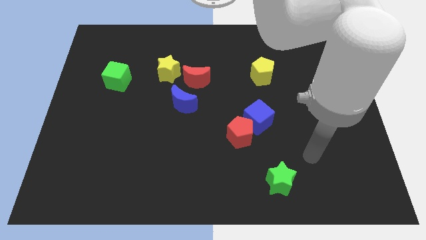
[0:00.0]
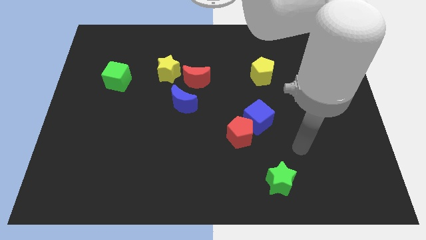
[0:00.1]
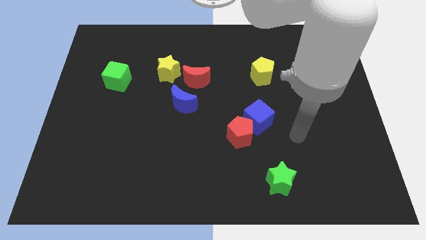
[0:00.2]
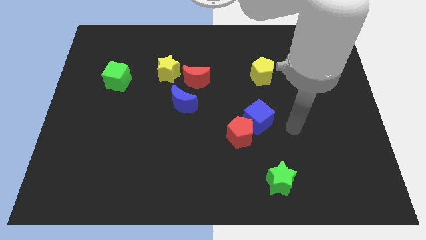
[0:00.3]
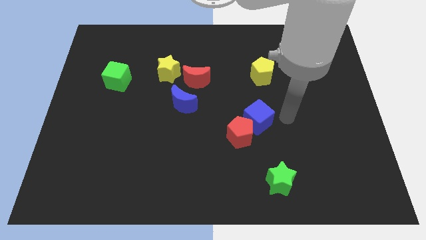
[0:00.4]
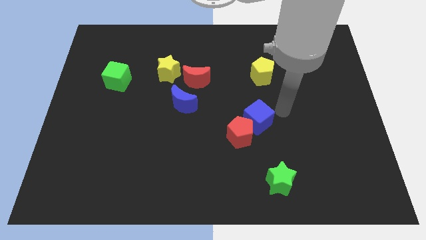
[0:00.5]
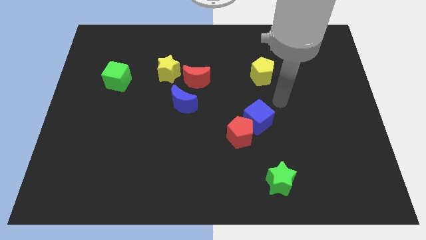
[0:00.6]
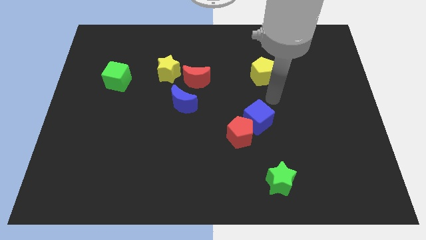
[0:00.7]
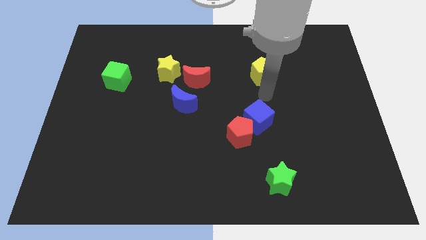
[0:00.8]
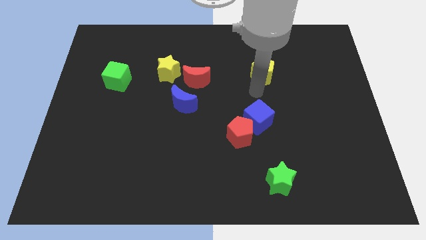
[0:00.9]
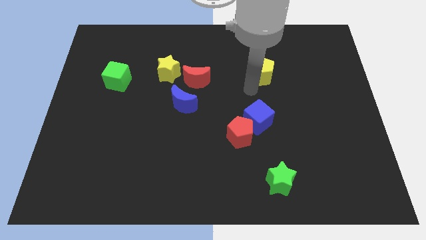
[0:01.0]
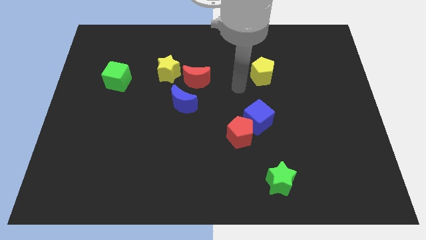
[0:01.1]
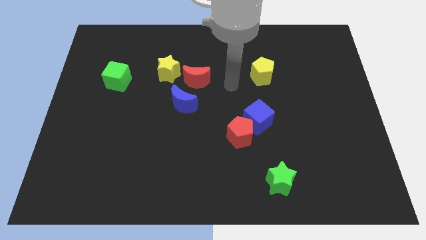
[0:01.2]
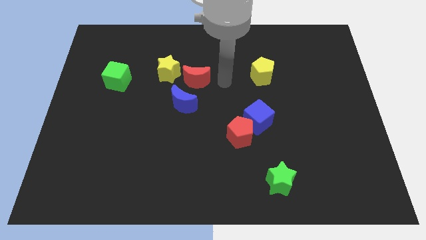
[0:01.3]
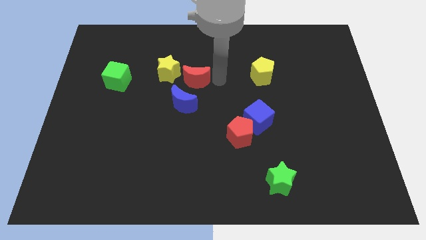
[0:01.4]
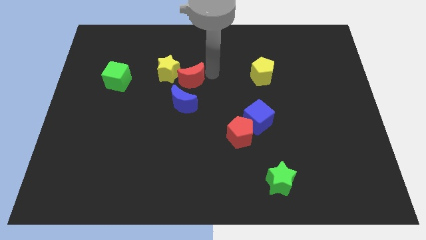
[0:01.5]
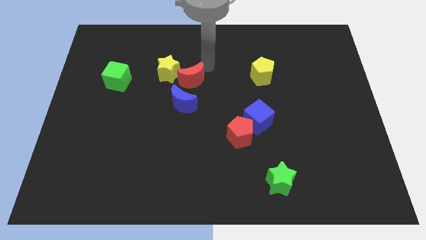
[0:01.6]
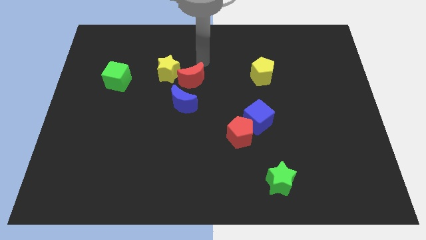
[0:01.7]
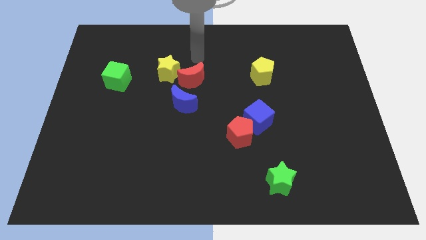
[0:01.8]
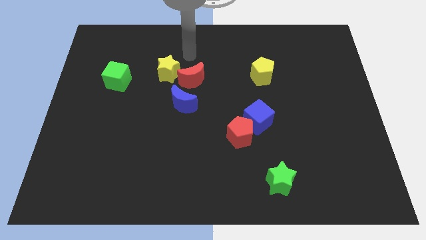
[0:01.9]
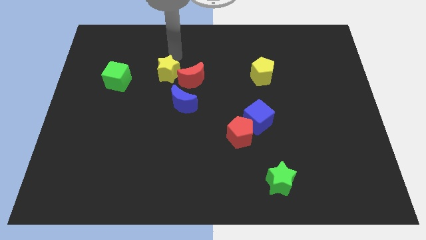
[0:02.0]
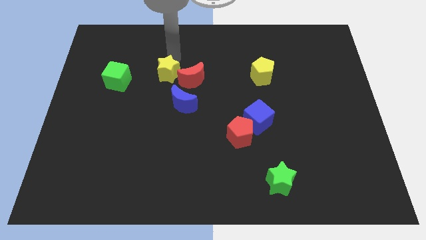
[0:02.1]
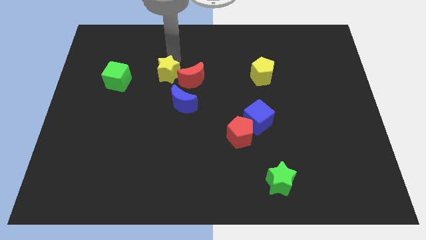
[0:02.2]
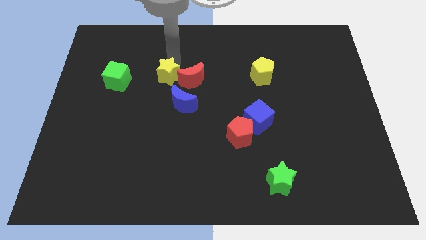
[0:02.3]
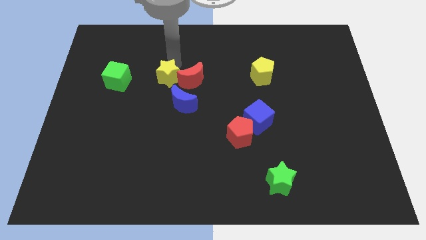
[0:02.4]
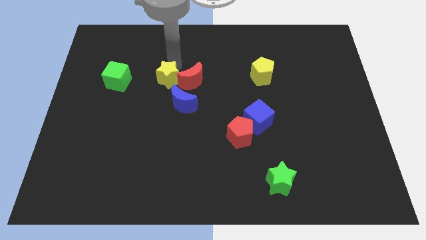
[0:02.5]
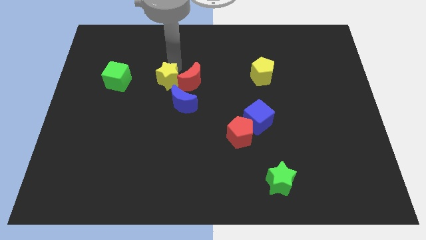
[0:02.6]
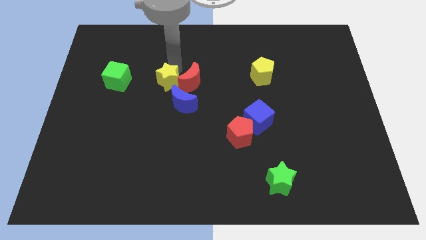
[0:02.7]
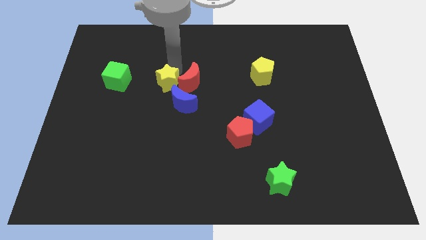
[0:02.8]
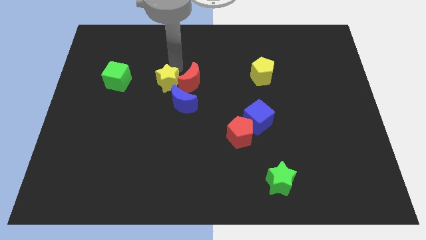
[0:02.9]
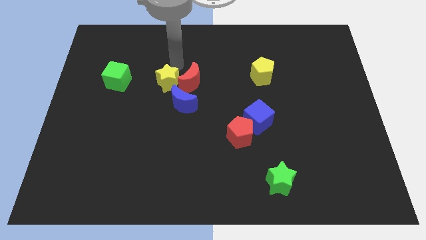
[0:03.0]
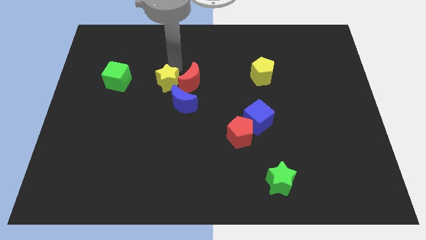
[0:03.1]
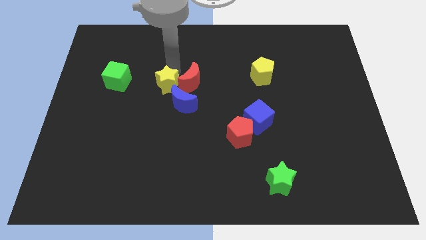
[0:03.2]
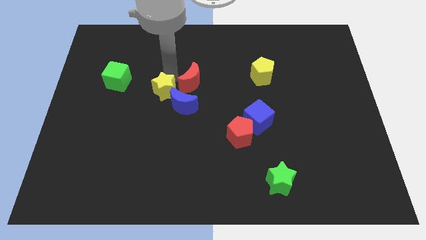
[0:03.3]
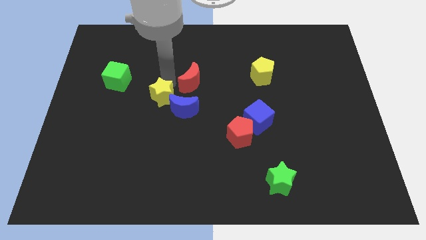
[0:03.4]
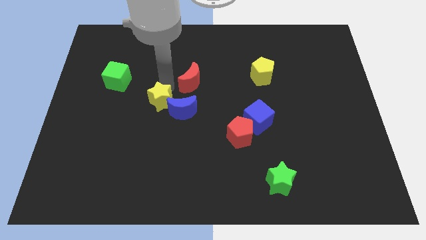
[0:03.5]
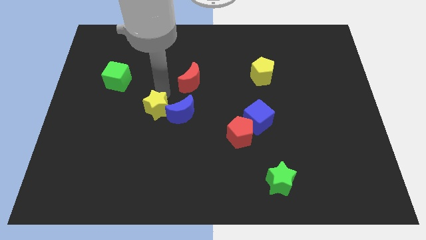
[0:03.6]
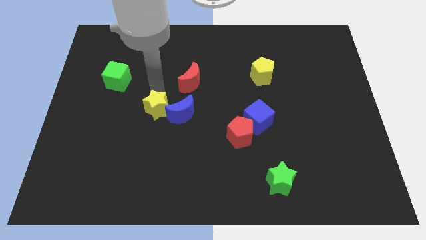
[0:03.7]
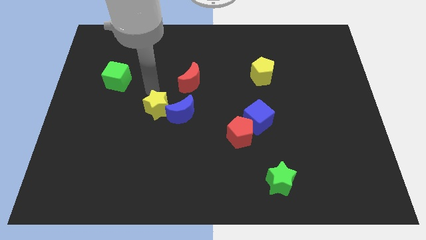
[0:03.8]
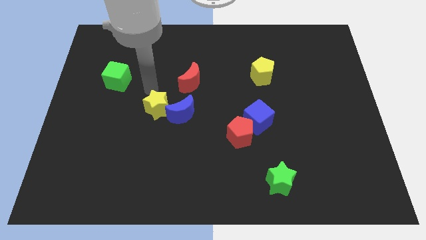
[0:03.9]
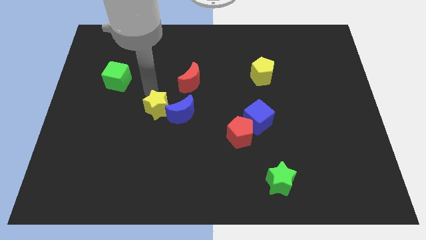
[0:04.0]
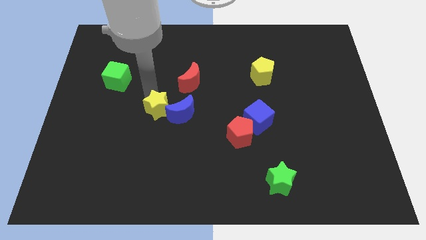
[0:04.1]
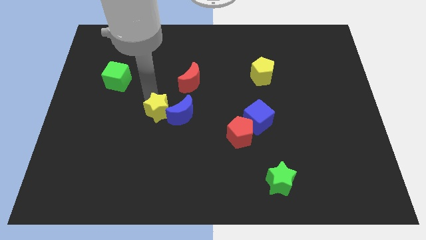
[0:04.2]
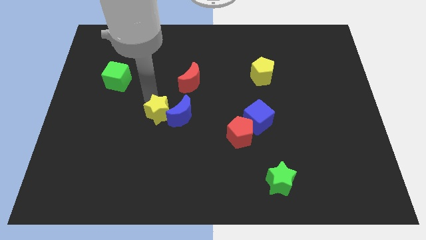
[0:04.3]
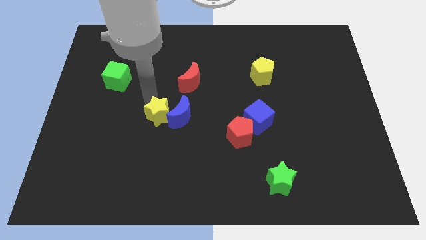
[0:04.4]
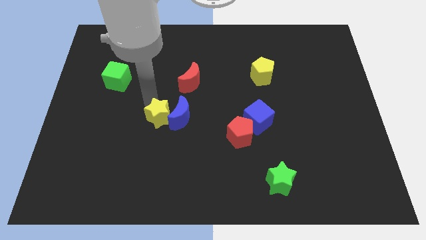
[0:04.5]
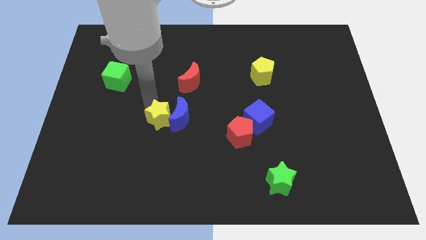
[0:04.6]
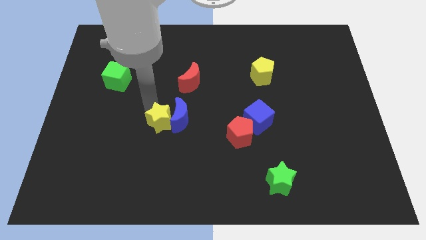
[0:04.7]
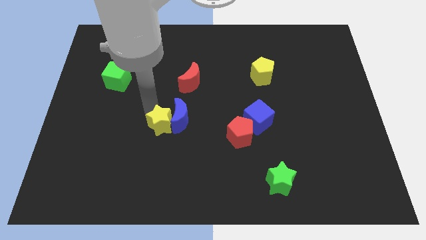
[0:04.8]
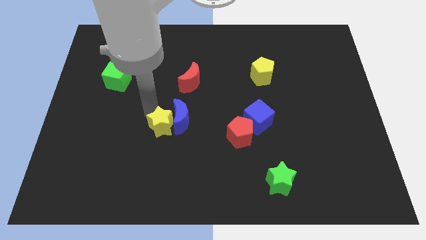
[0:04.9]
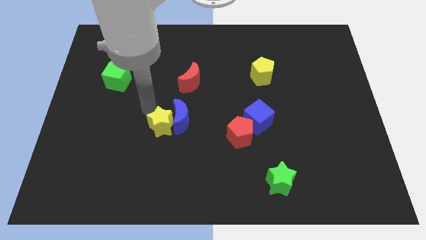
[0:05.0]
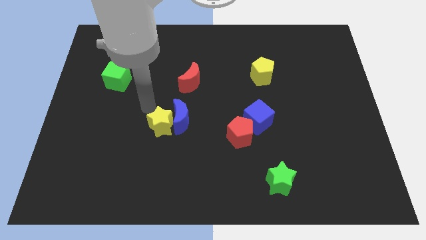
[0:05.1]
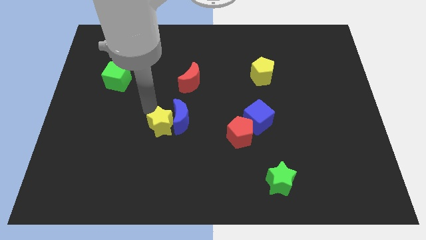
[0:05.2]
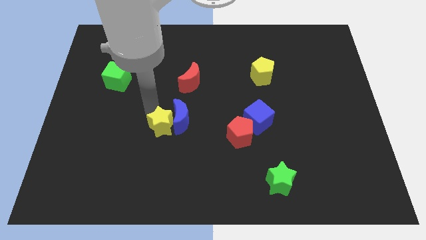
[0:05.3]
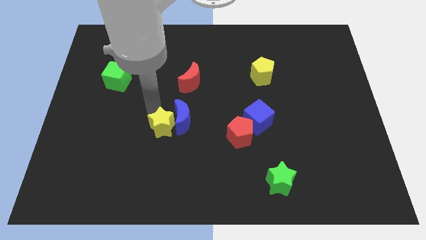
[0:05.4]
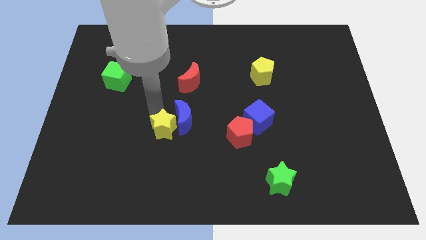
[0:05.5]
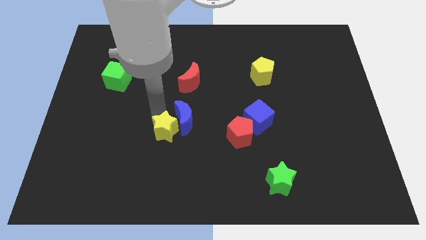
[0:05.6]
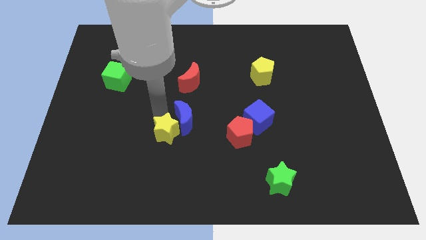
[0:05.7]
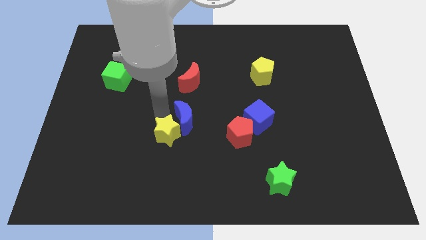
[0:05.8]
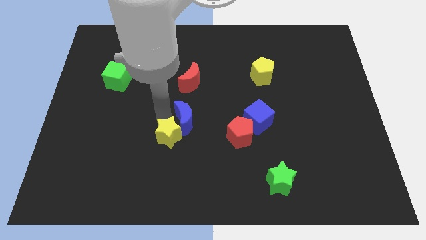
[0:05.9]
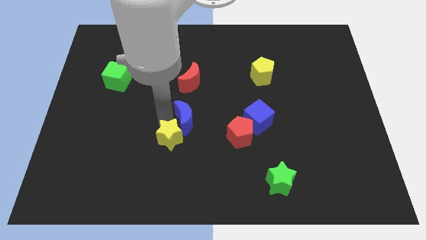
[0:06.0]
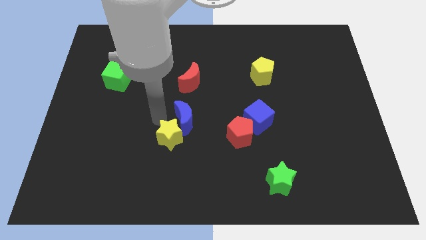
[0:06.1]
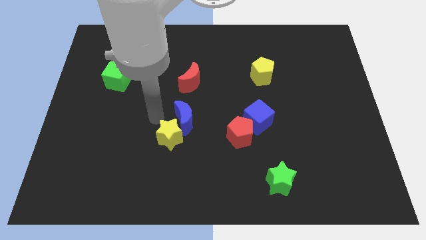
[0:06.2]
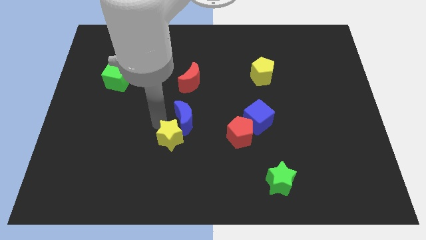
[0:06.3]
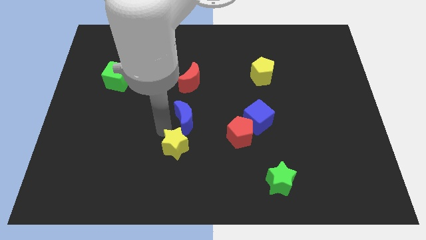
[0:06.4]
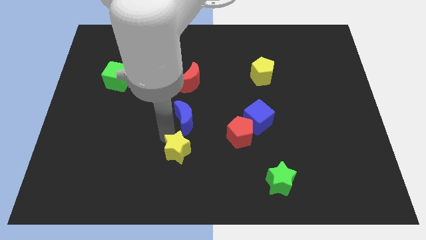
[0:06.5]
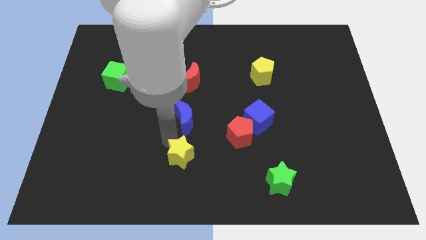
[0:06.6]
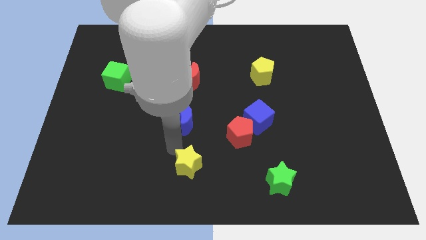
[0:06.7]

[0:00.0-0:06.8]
move the yellow star to the bottom side
